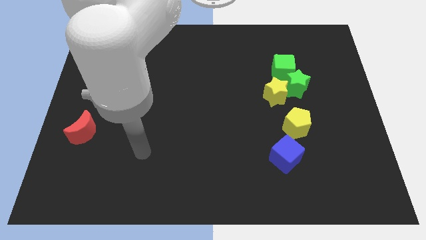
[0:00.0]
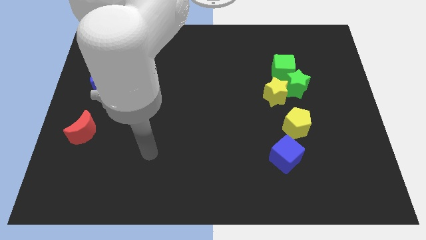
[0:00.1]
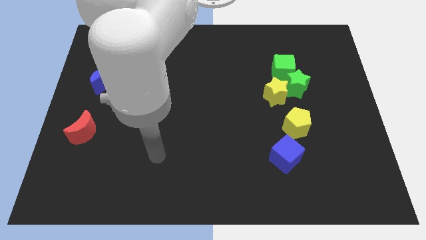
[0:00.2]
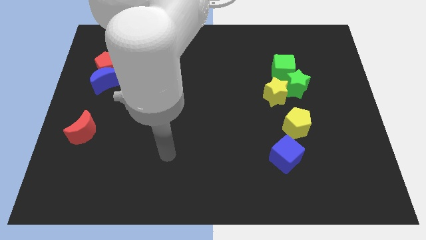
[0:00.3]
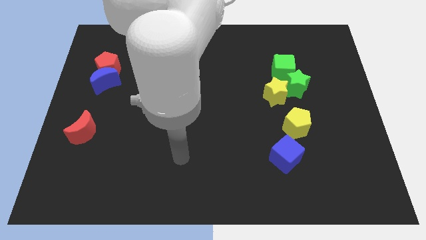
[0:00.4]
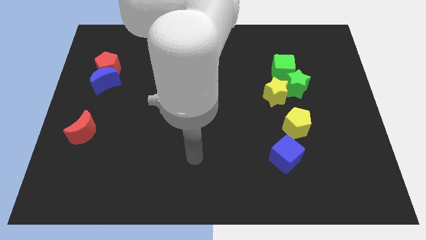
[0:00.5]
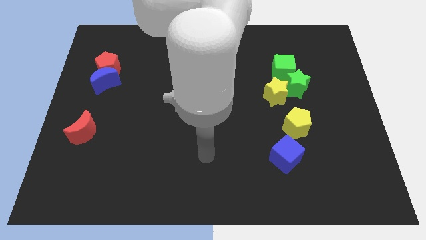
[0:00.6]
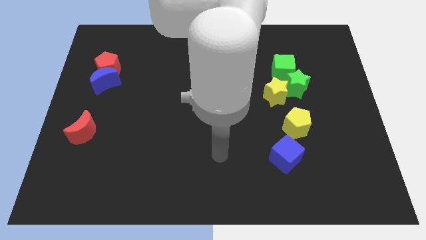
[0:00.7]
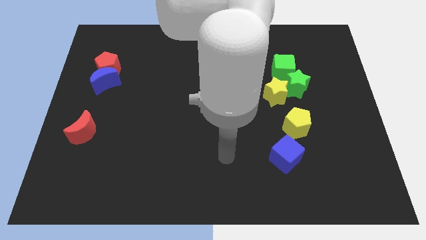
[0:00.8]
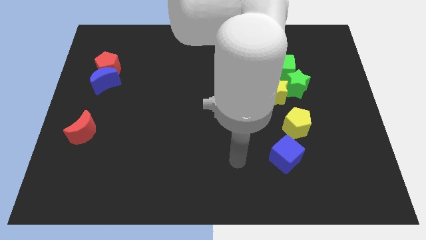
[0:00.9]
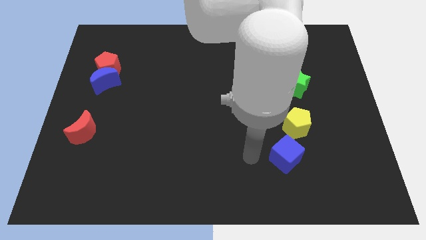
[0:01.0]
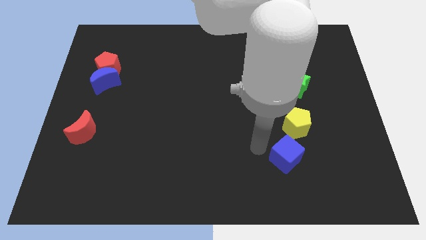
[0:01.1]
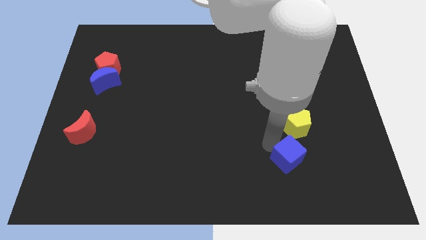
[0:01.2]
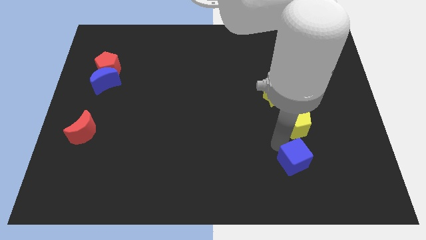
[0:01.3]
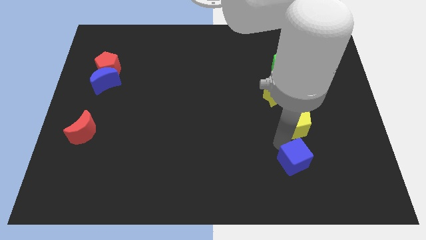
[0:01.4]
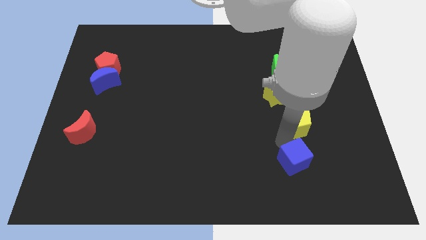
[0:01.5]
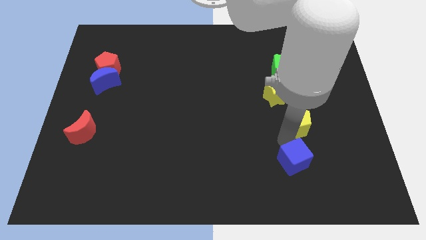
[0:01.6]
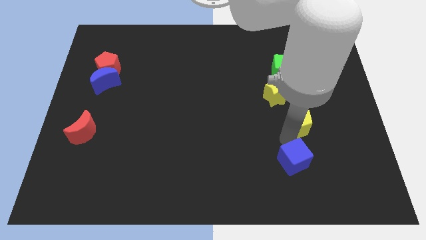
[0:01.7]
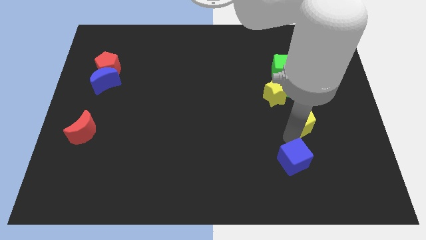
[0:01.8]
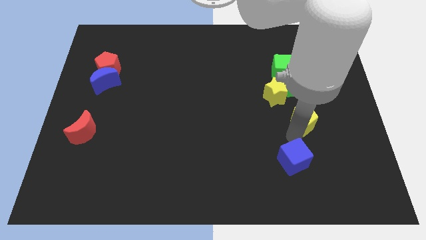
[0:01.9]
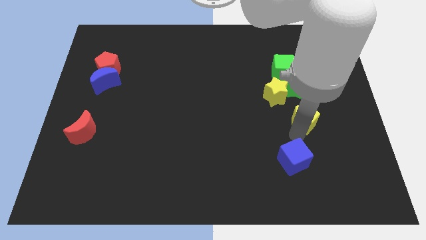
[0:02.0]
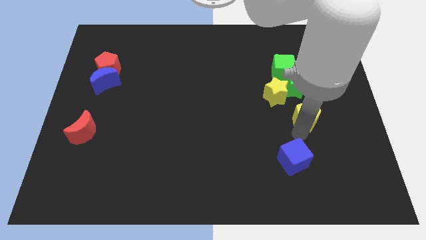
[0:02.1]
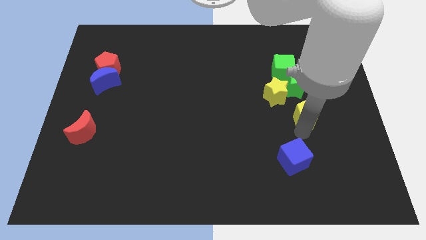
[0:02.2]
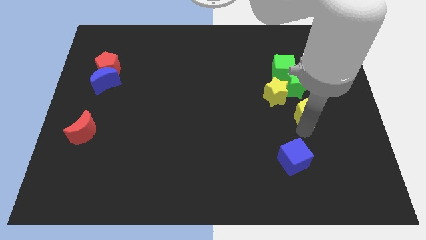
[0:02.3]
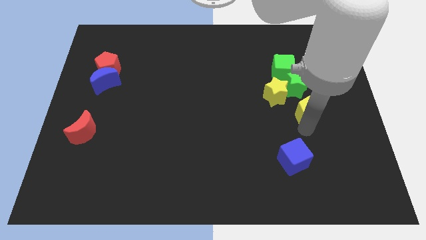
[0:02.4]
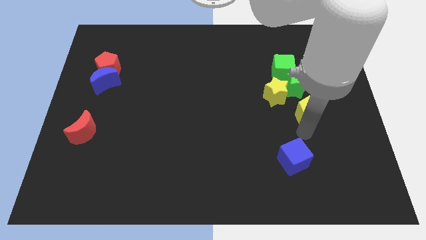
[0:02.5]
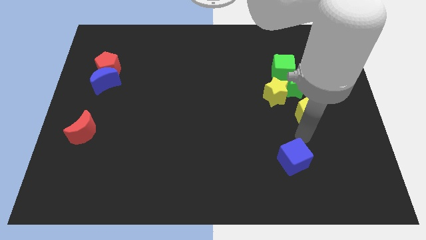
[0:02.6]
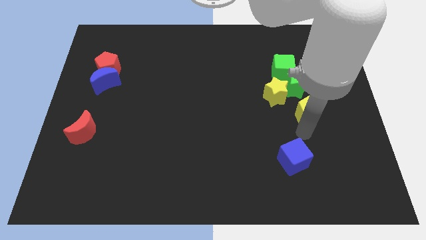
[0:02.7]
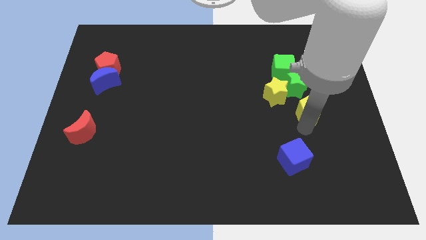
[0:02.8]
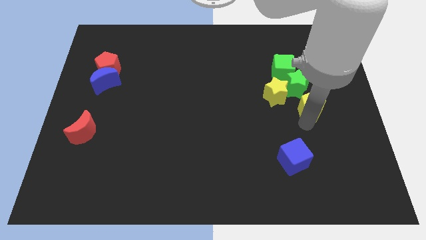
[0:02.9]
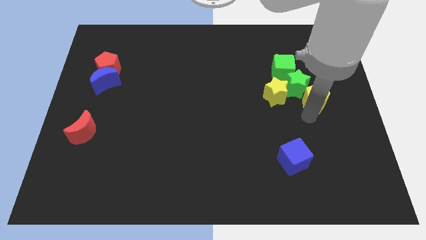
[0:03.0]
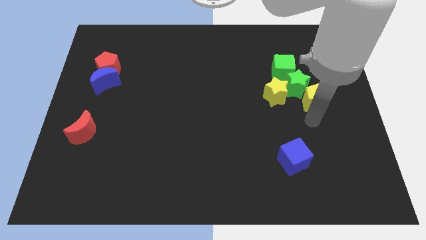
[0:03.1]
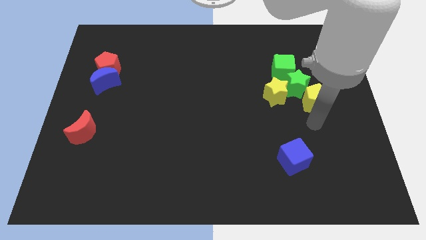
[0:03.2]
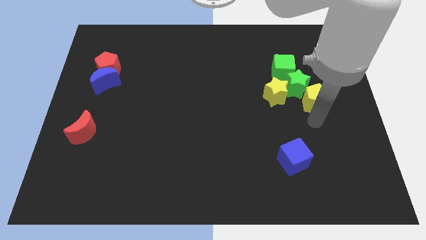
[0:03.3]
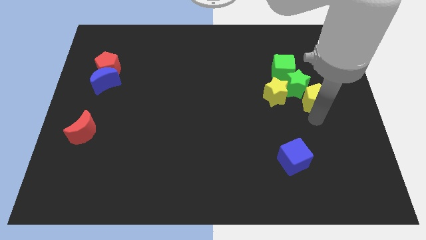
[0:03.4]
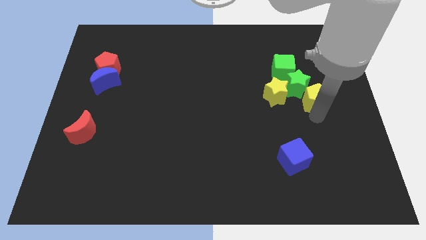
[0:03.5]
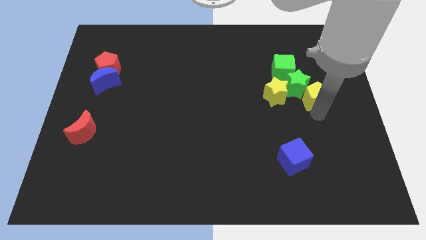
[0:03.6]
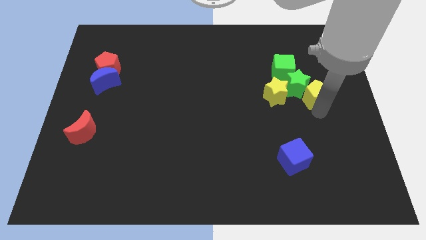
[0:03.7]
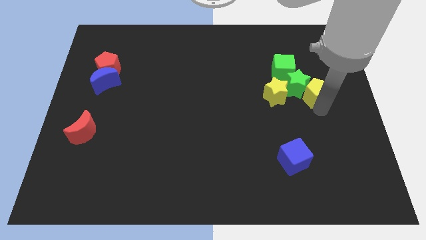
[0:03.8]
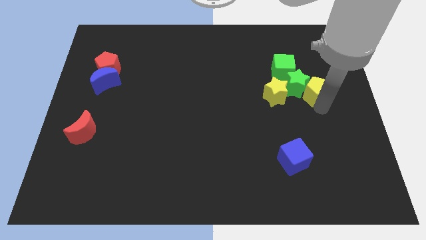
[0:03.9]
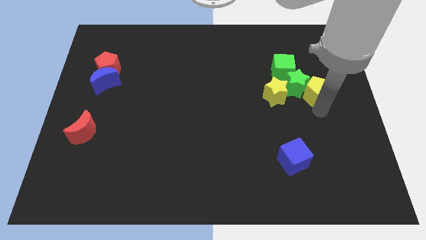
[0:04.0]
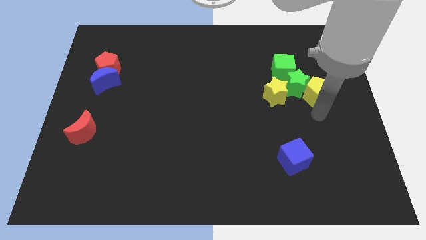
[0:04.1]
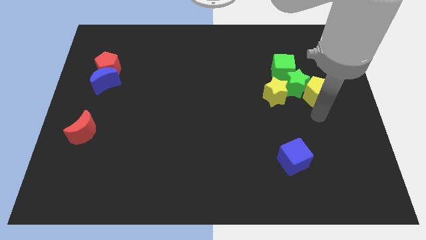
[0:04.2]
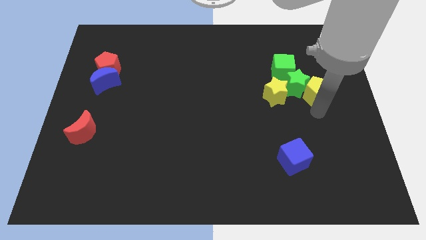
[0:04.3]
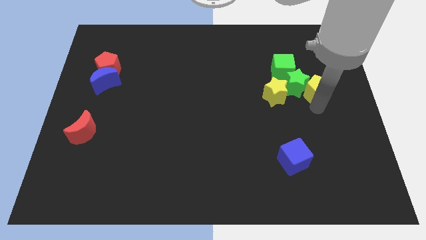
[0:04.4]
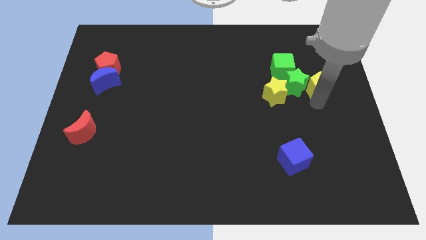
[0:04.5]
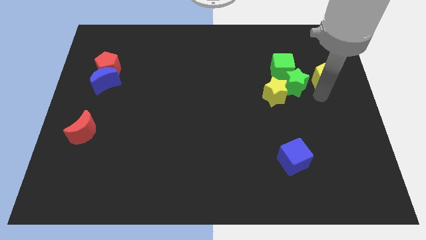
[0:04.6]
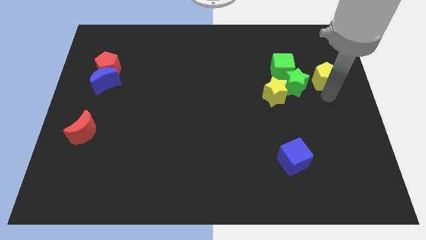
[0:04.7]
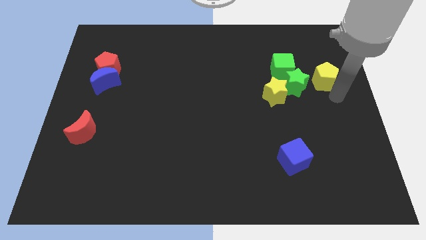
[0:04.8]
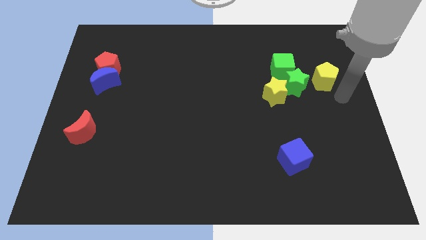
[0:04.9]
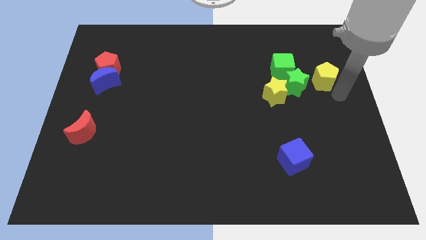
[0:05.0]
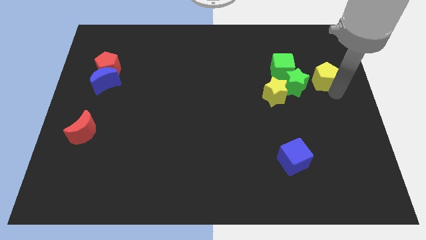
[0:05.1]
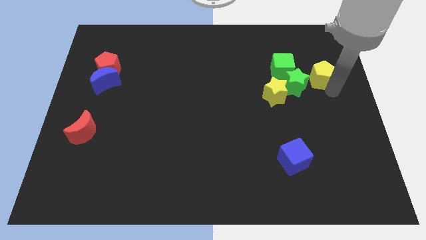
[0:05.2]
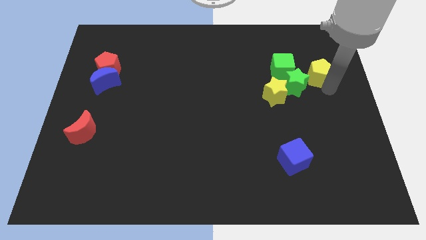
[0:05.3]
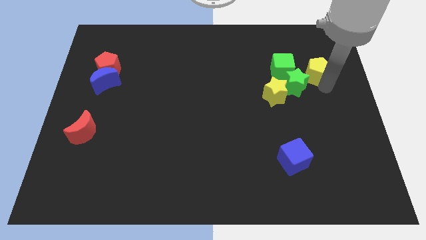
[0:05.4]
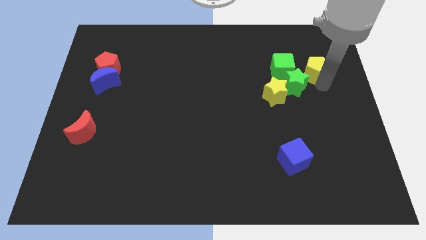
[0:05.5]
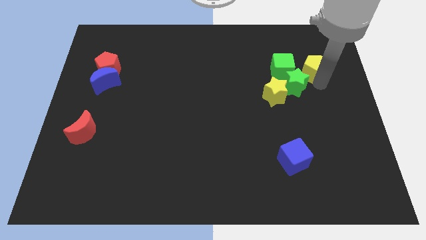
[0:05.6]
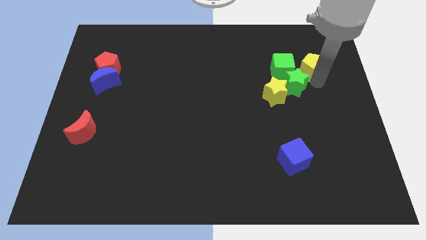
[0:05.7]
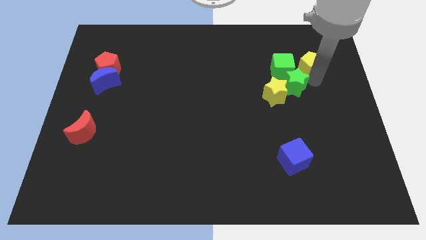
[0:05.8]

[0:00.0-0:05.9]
push the yellow pentagon to the top right of the green cube

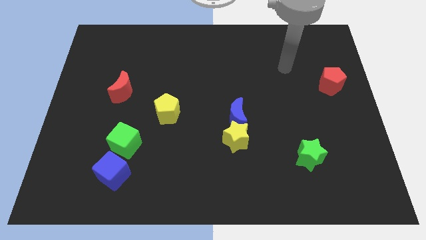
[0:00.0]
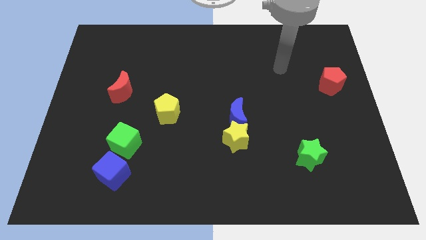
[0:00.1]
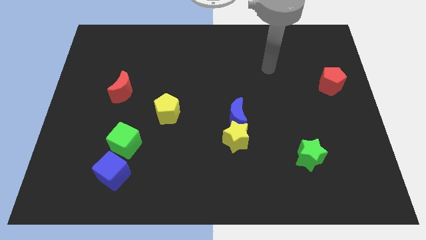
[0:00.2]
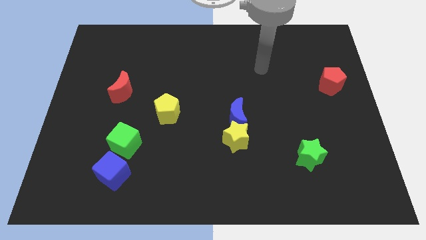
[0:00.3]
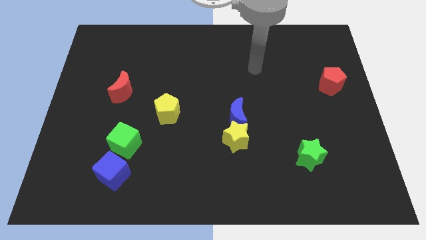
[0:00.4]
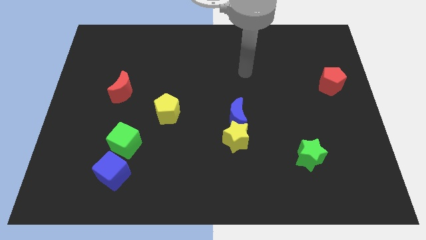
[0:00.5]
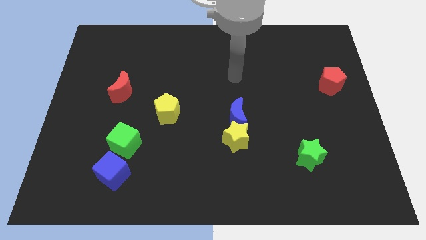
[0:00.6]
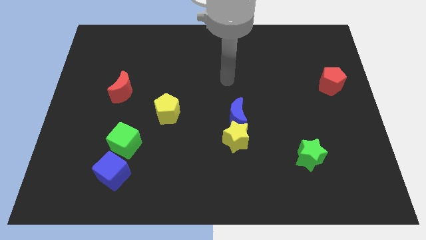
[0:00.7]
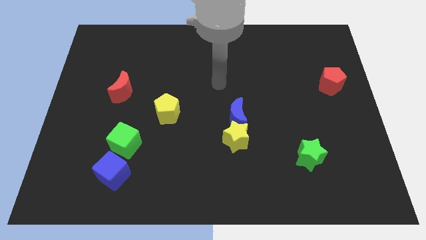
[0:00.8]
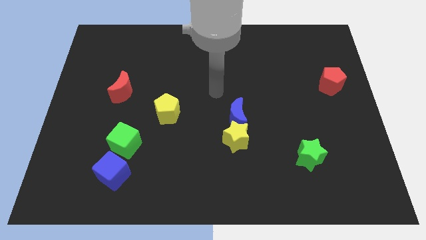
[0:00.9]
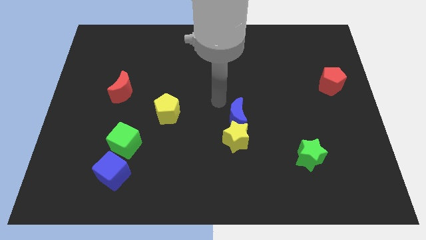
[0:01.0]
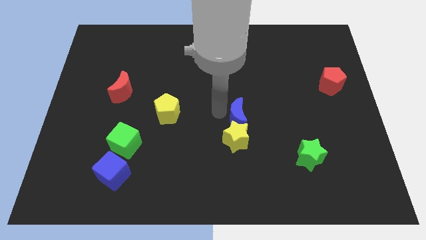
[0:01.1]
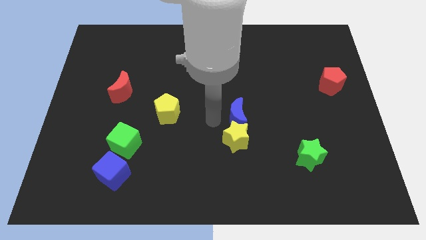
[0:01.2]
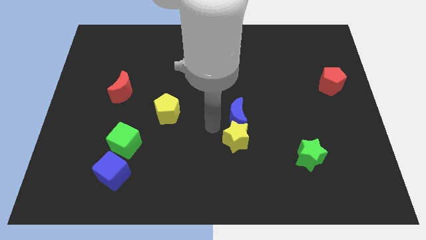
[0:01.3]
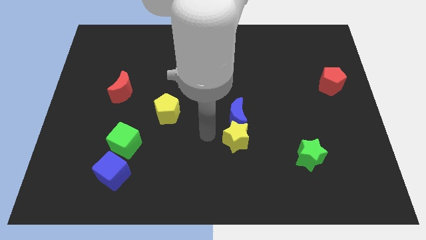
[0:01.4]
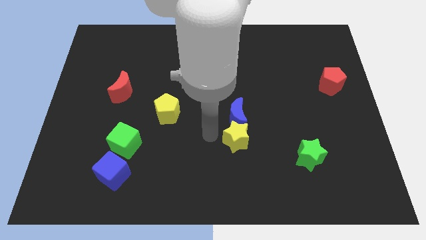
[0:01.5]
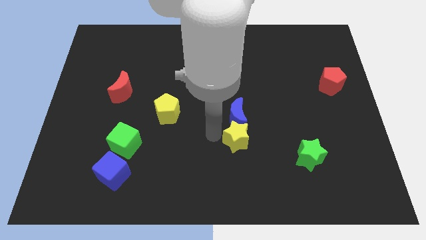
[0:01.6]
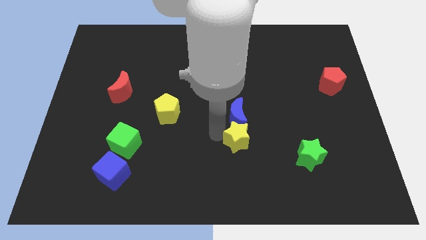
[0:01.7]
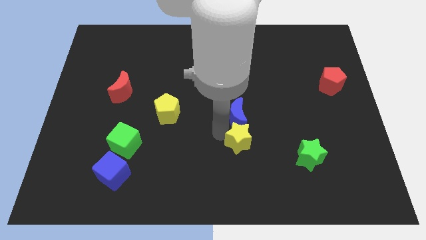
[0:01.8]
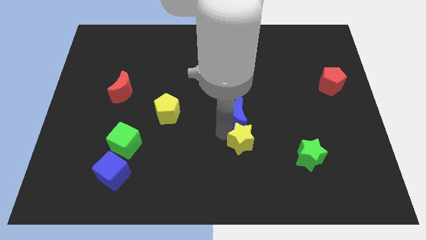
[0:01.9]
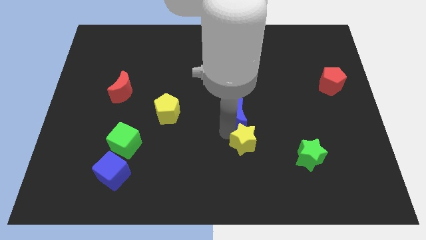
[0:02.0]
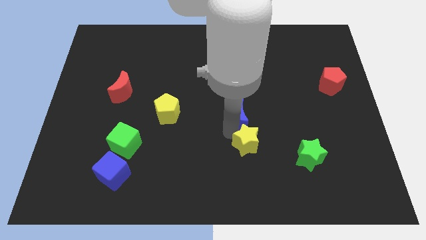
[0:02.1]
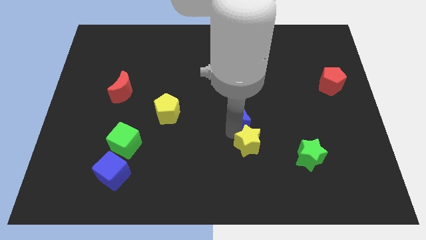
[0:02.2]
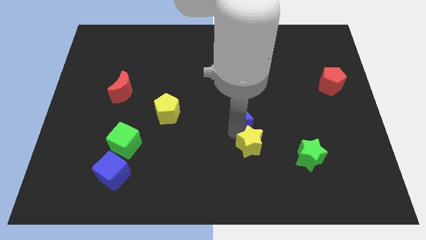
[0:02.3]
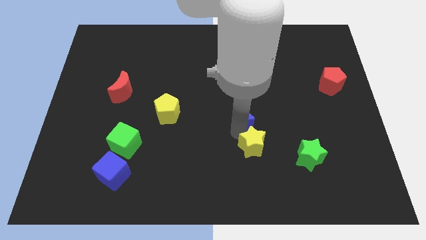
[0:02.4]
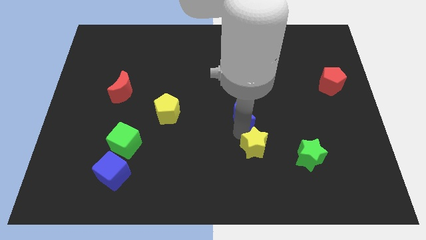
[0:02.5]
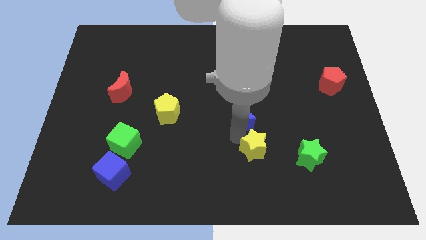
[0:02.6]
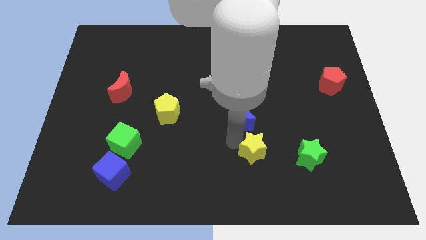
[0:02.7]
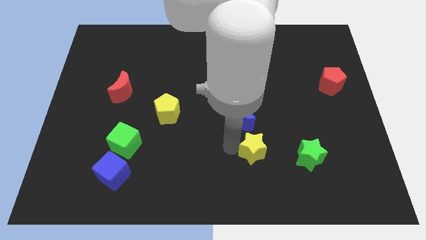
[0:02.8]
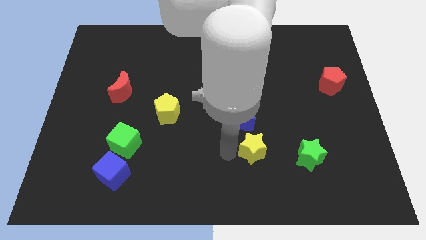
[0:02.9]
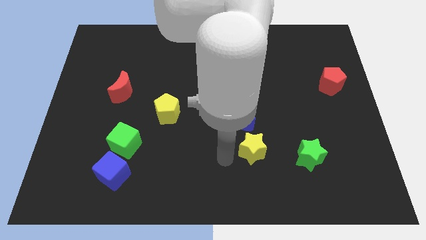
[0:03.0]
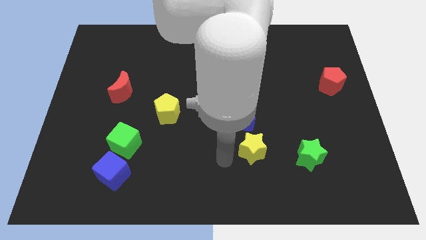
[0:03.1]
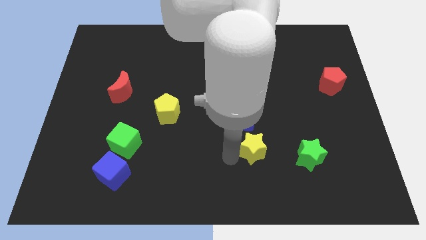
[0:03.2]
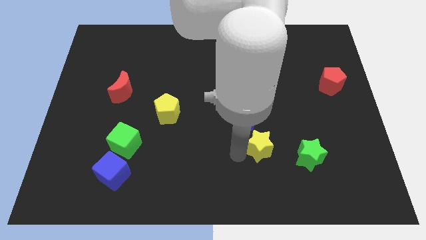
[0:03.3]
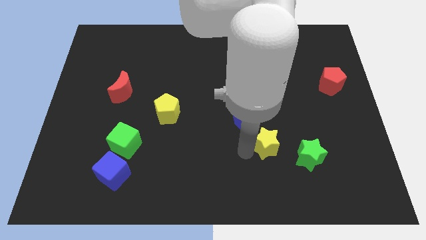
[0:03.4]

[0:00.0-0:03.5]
move the yellow star diagonally up and to the left of the green star
